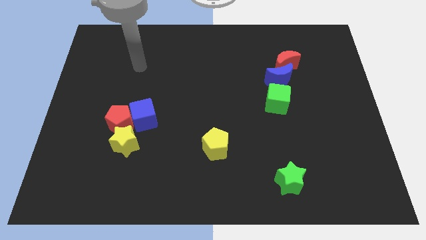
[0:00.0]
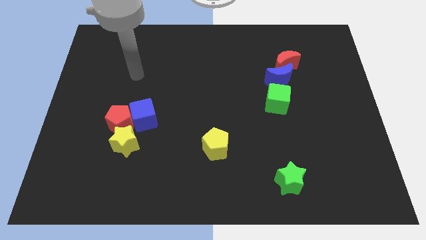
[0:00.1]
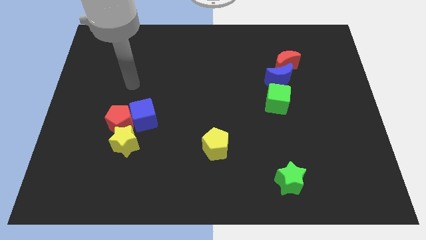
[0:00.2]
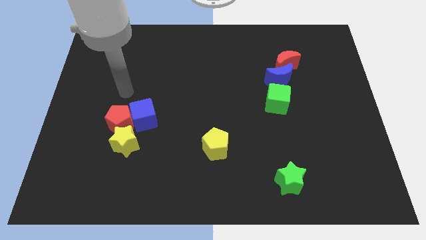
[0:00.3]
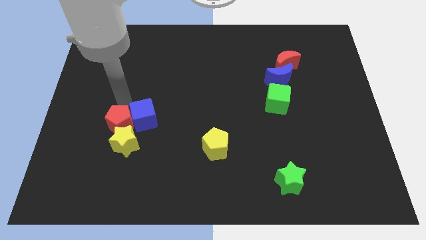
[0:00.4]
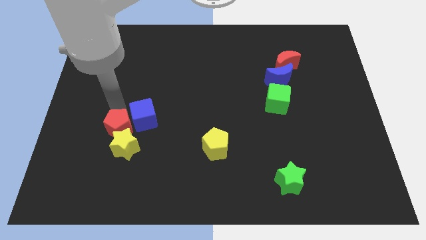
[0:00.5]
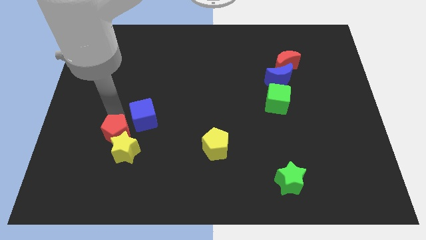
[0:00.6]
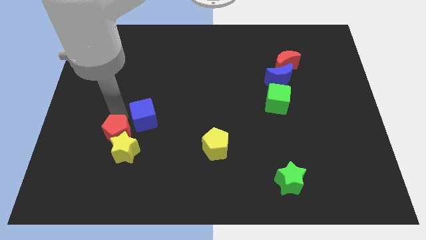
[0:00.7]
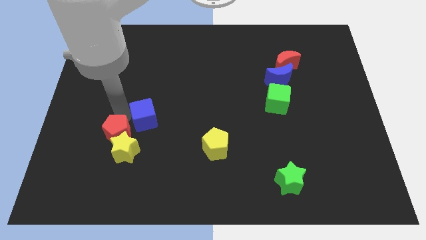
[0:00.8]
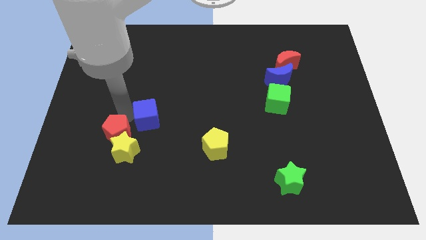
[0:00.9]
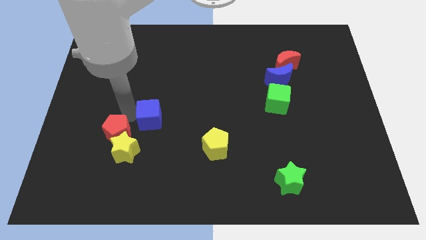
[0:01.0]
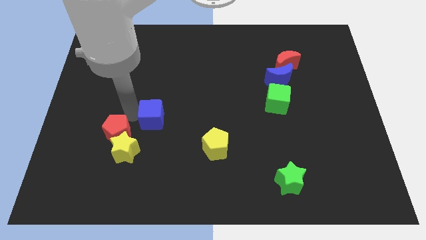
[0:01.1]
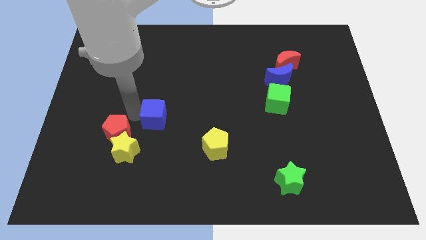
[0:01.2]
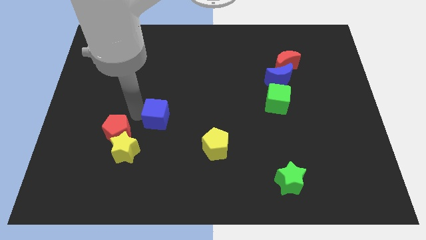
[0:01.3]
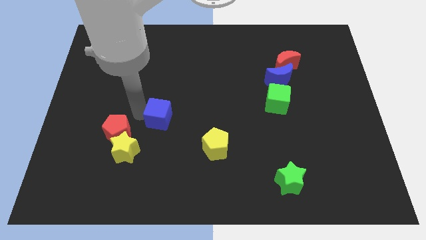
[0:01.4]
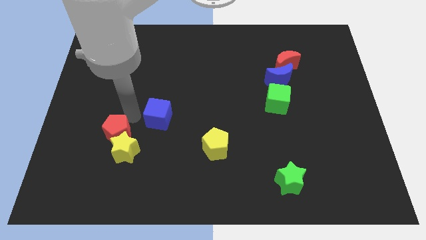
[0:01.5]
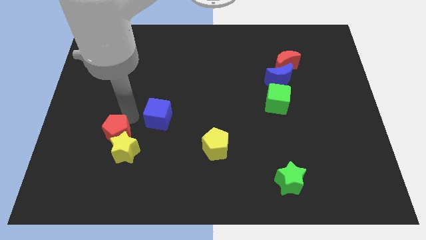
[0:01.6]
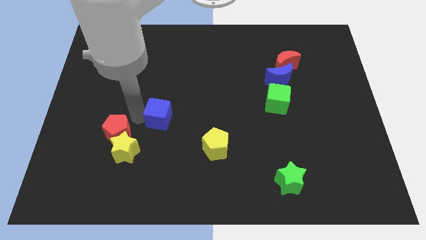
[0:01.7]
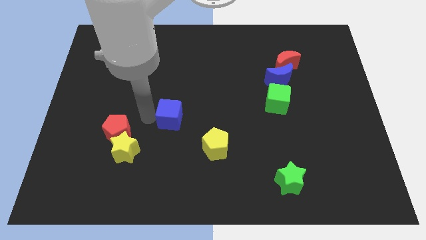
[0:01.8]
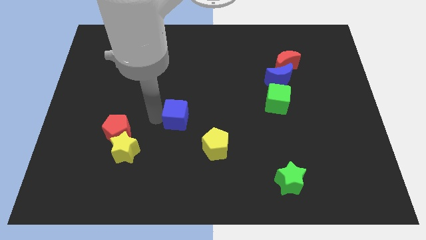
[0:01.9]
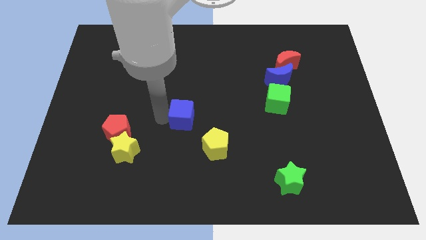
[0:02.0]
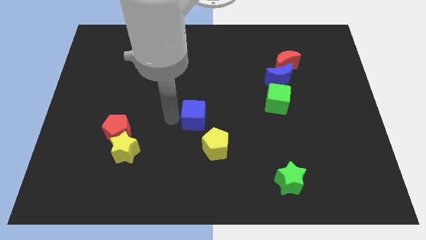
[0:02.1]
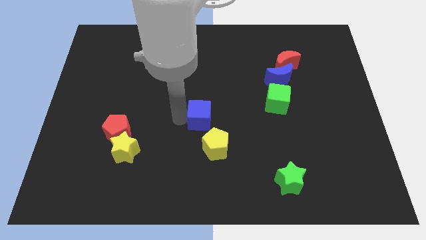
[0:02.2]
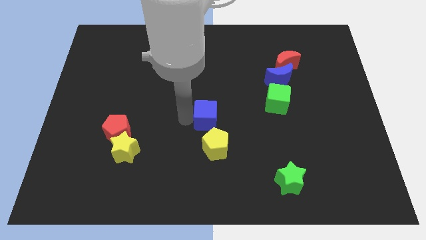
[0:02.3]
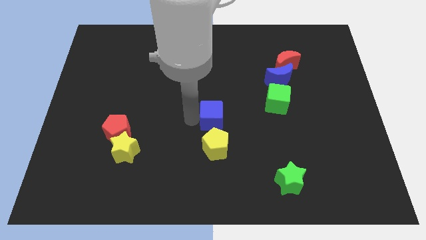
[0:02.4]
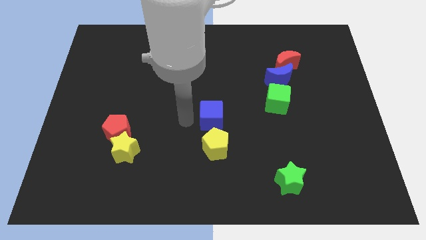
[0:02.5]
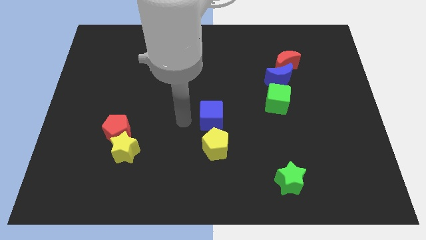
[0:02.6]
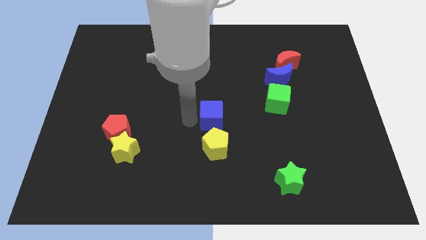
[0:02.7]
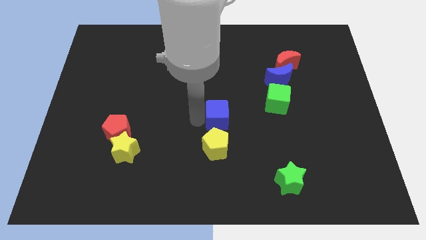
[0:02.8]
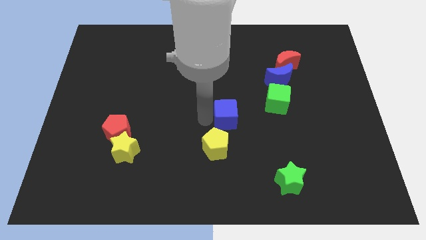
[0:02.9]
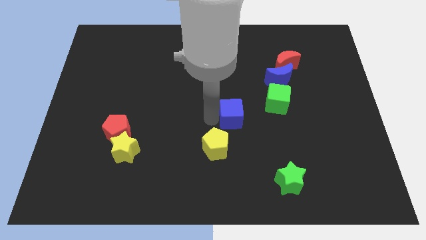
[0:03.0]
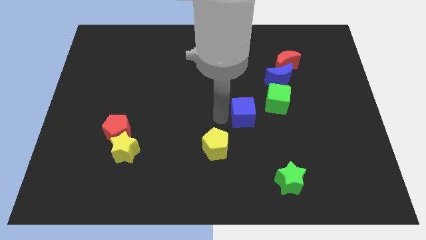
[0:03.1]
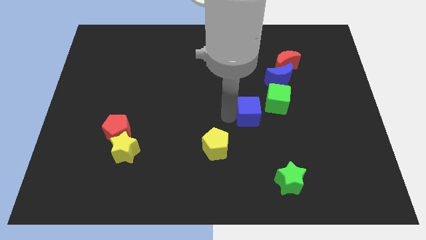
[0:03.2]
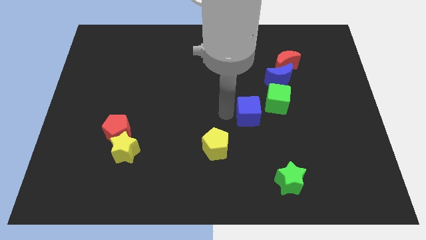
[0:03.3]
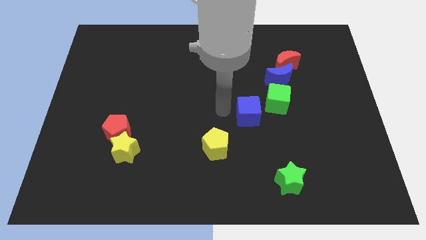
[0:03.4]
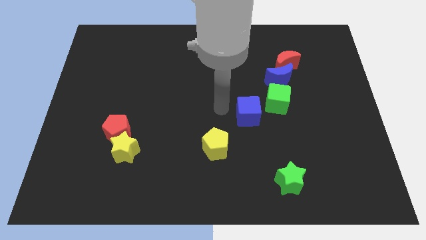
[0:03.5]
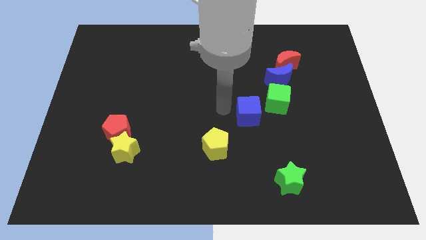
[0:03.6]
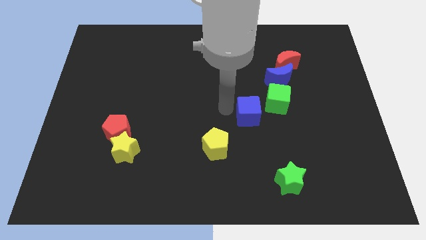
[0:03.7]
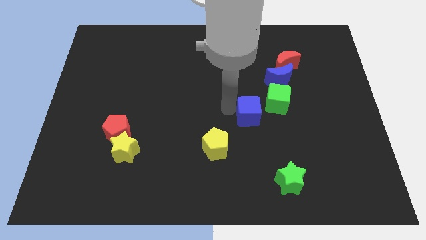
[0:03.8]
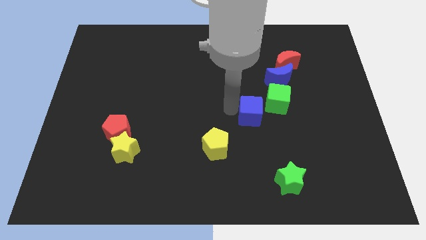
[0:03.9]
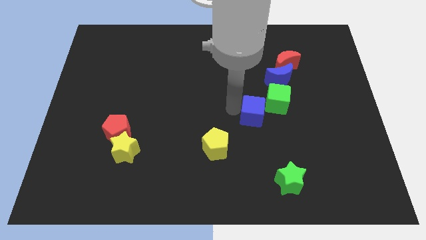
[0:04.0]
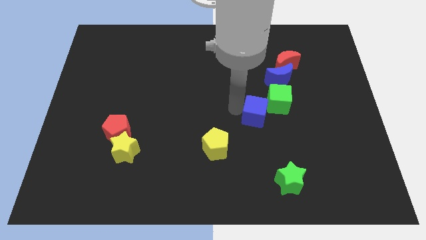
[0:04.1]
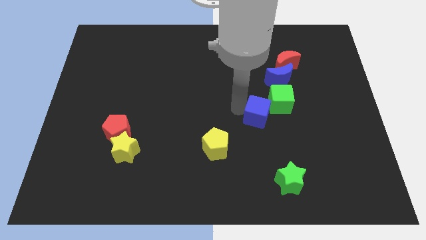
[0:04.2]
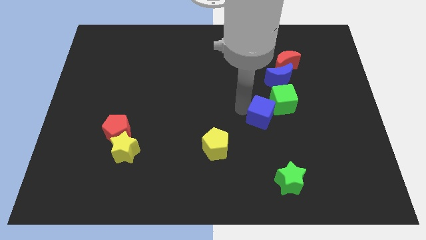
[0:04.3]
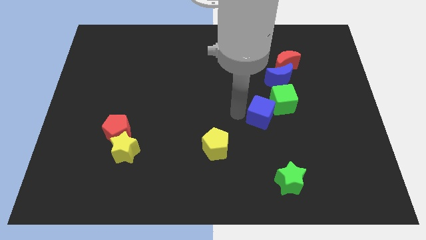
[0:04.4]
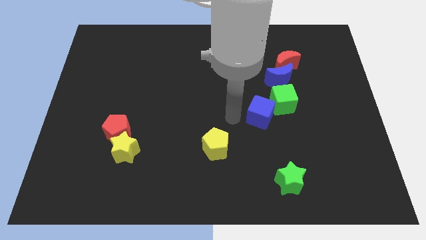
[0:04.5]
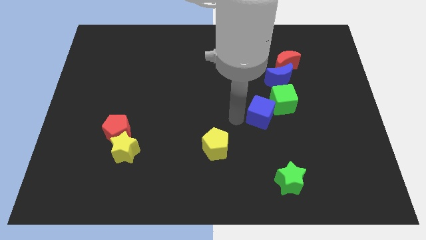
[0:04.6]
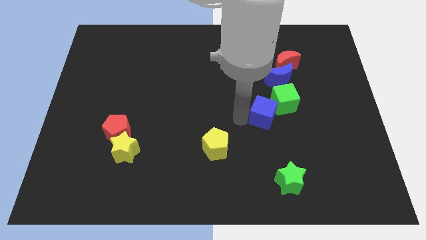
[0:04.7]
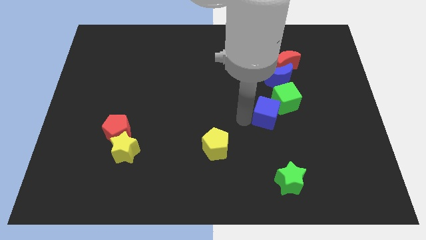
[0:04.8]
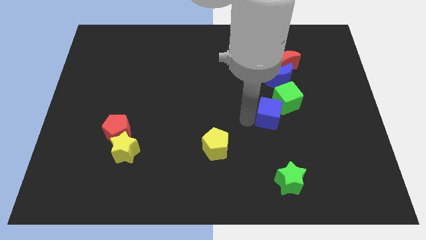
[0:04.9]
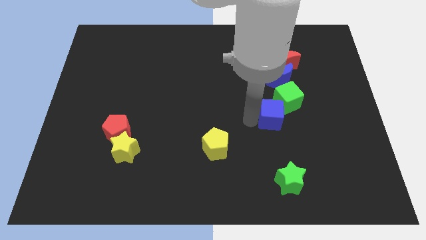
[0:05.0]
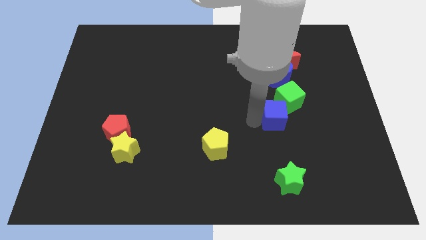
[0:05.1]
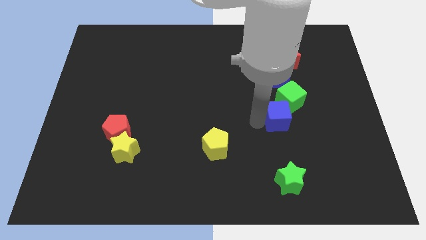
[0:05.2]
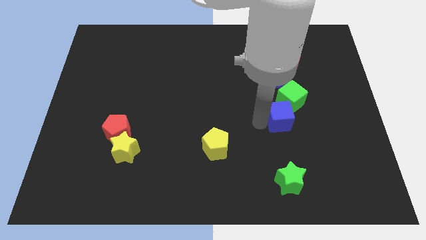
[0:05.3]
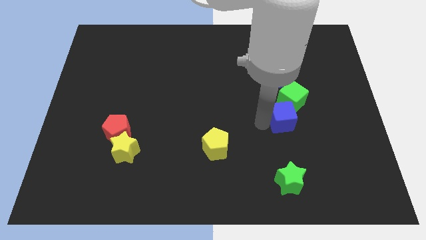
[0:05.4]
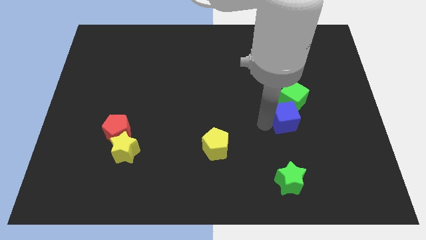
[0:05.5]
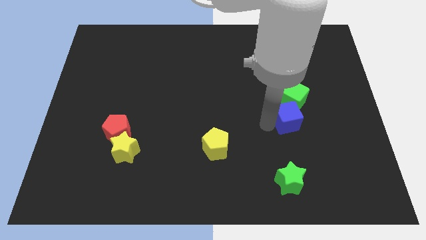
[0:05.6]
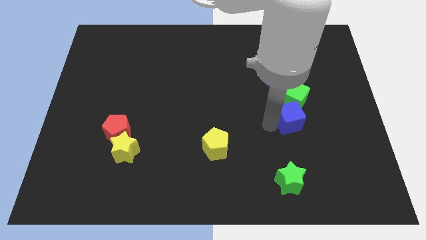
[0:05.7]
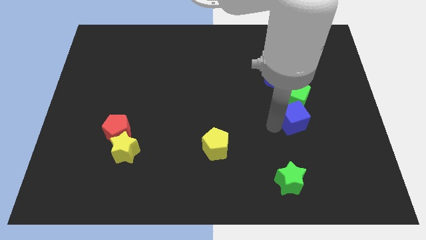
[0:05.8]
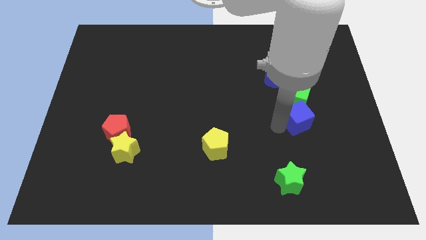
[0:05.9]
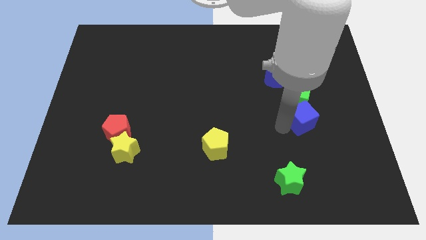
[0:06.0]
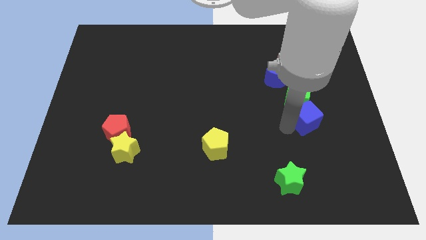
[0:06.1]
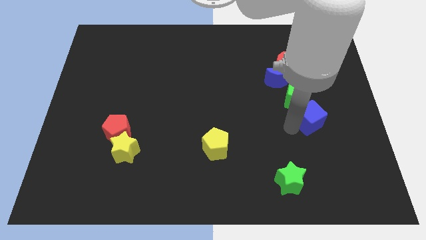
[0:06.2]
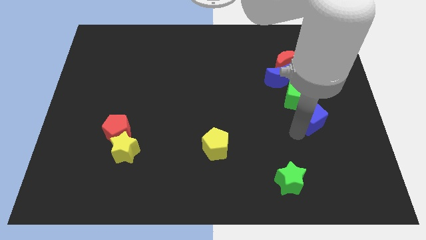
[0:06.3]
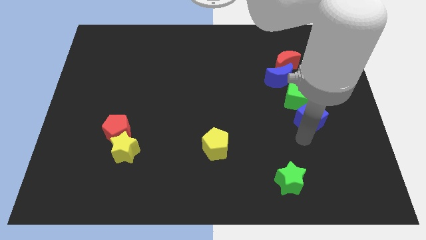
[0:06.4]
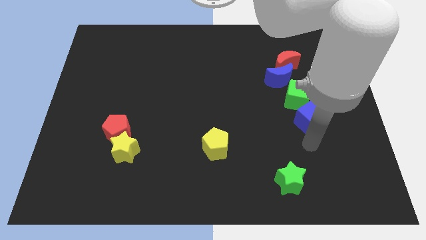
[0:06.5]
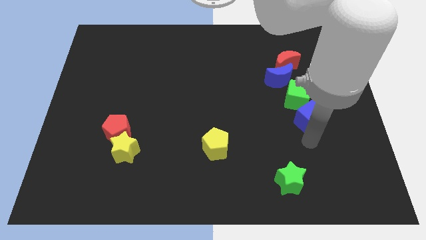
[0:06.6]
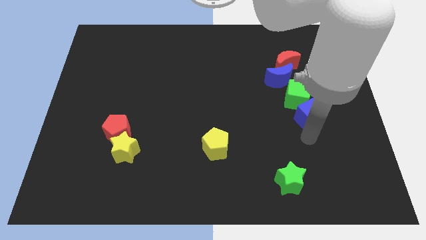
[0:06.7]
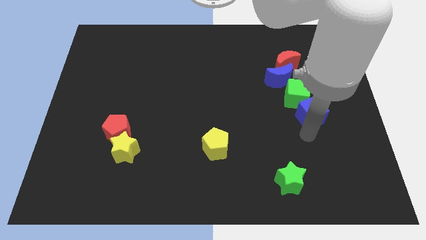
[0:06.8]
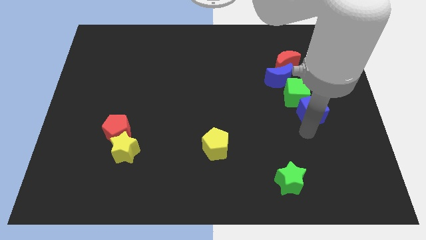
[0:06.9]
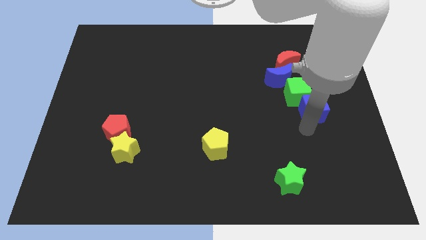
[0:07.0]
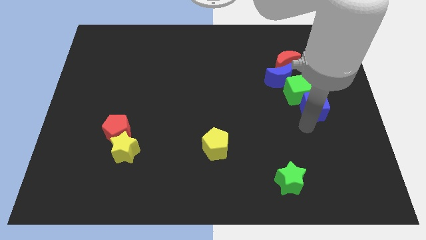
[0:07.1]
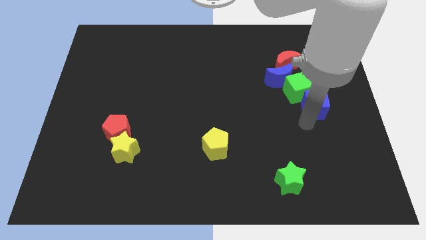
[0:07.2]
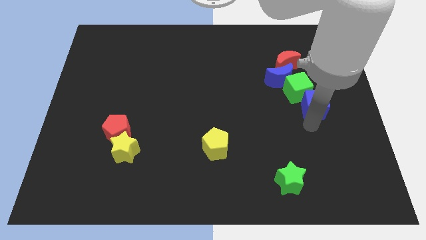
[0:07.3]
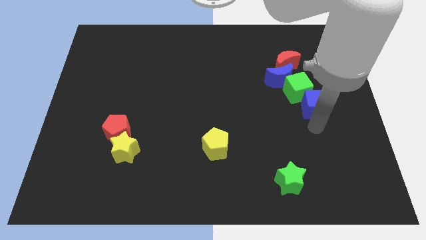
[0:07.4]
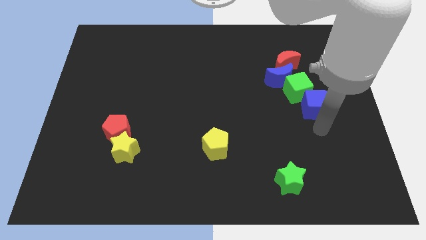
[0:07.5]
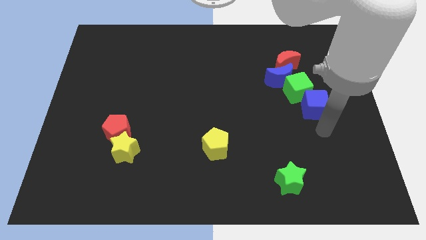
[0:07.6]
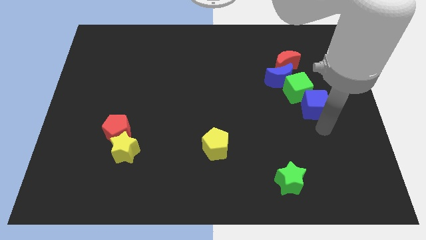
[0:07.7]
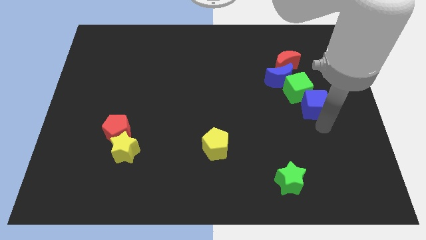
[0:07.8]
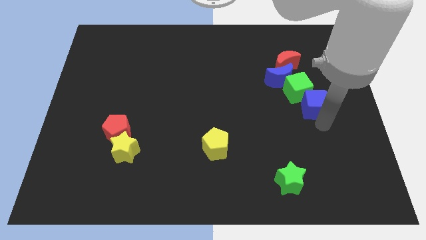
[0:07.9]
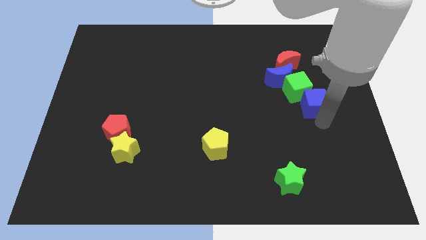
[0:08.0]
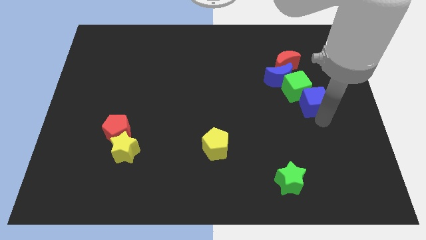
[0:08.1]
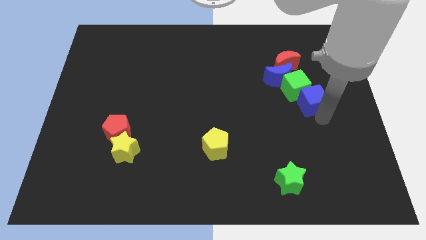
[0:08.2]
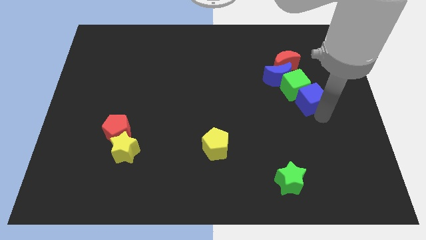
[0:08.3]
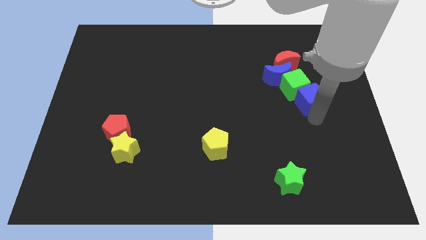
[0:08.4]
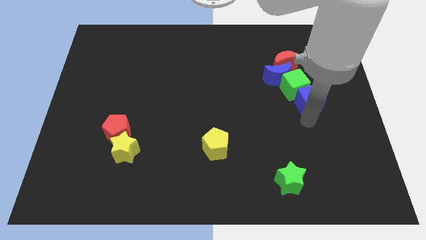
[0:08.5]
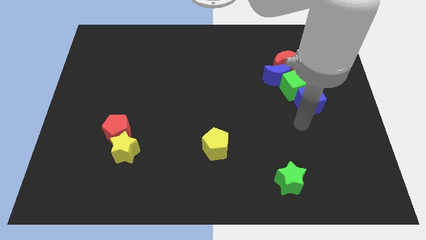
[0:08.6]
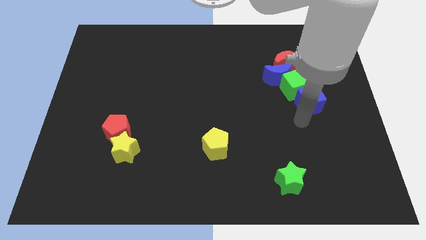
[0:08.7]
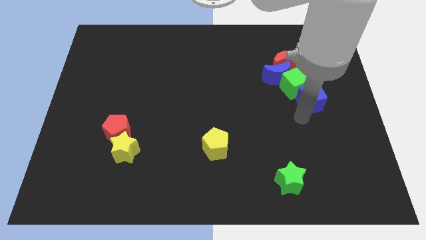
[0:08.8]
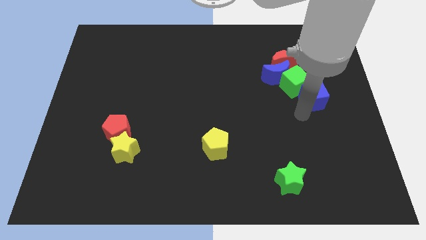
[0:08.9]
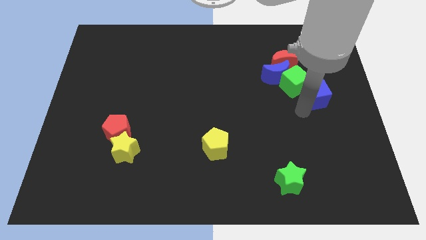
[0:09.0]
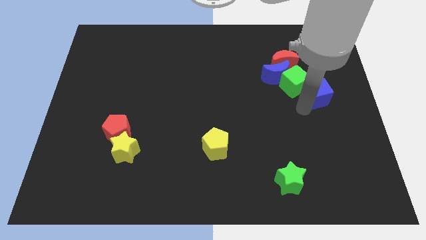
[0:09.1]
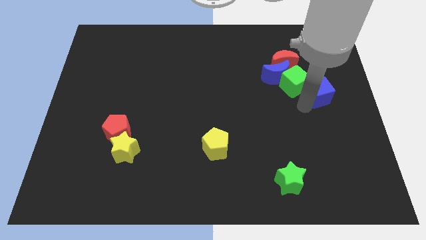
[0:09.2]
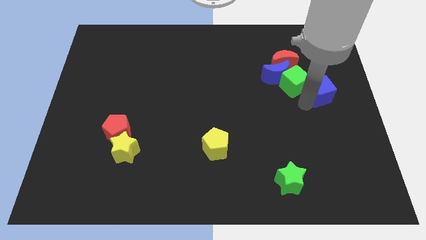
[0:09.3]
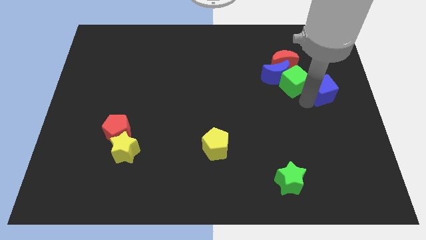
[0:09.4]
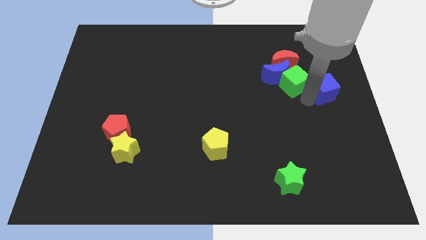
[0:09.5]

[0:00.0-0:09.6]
push the blue cube to the right of the blue moon
